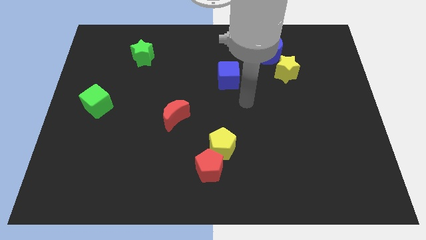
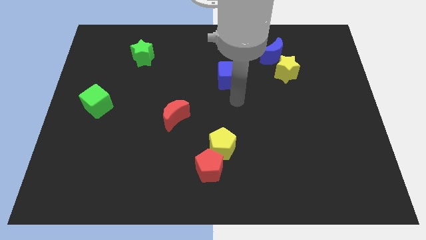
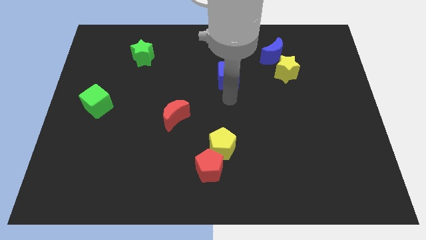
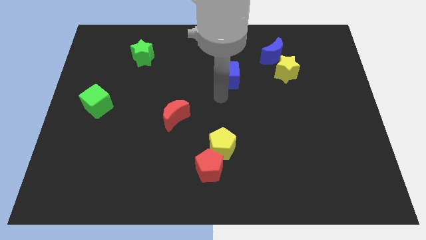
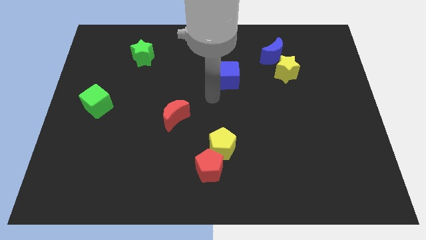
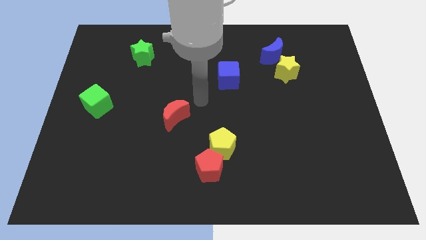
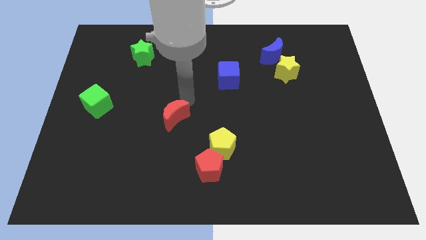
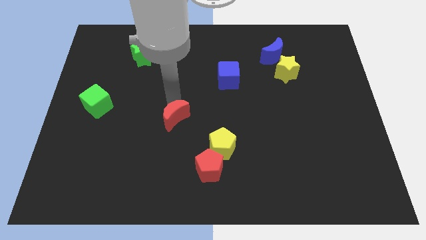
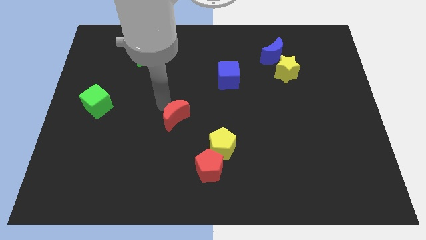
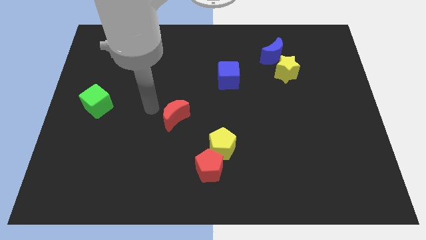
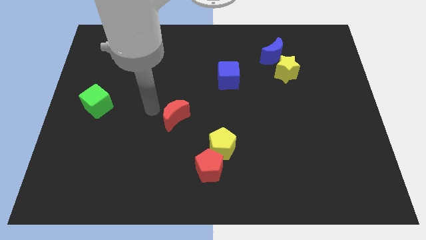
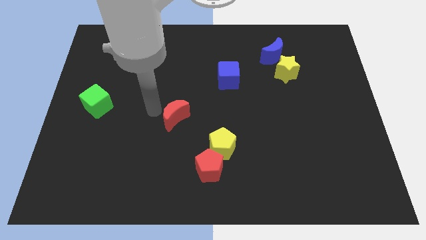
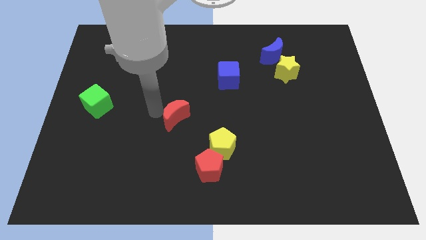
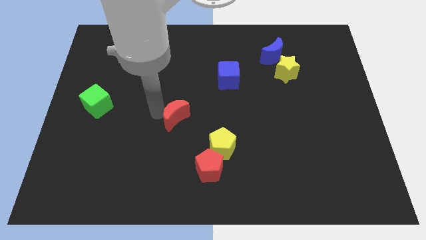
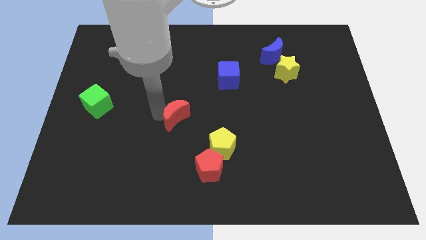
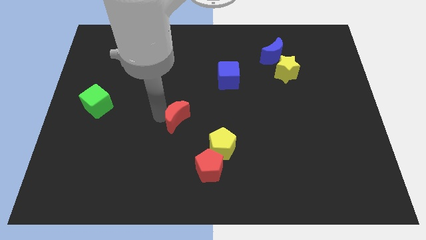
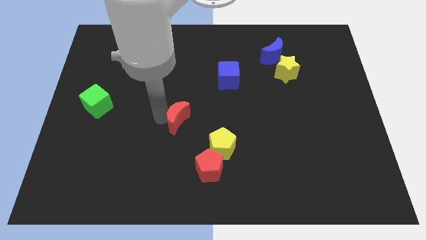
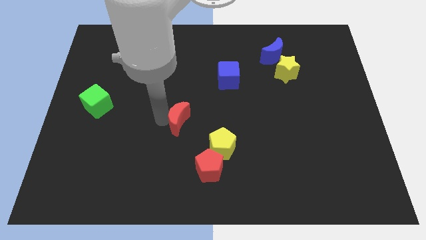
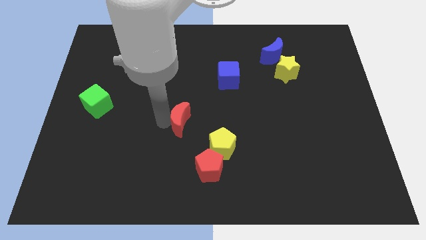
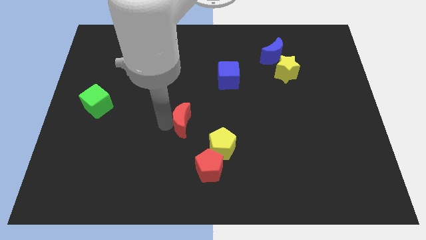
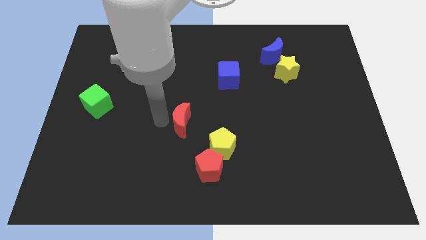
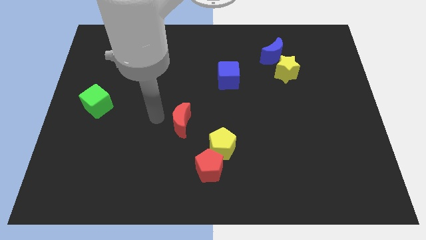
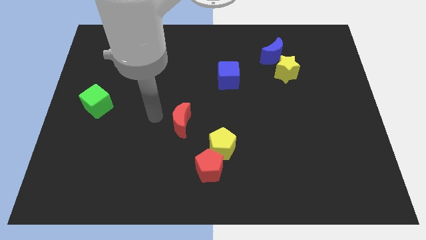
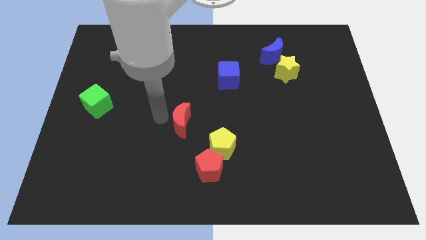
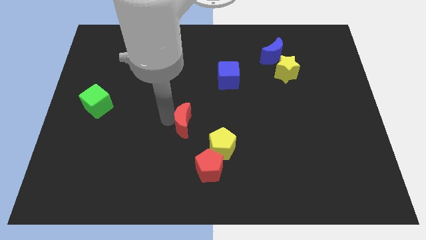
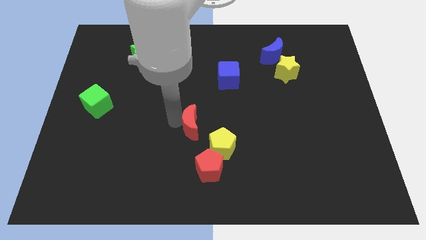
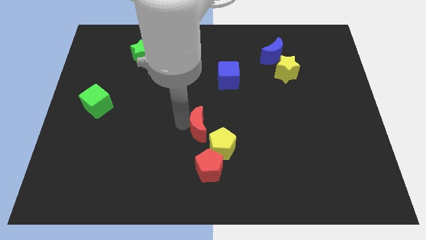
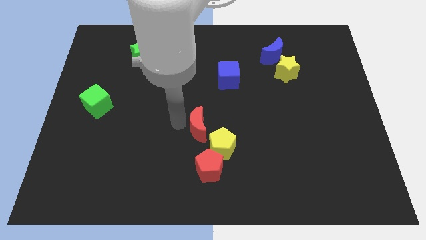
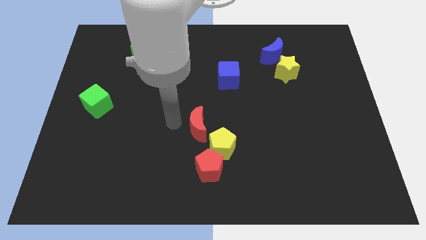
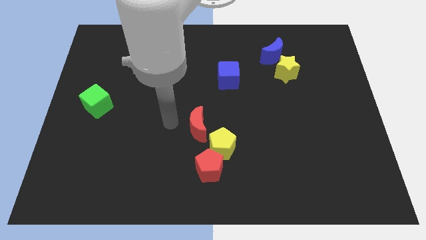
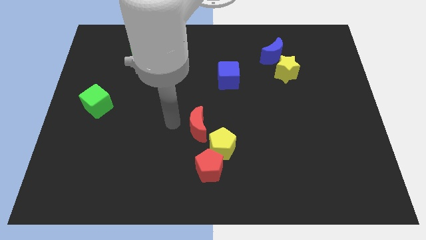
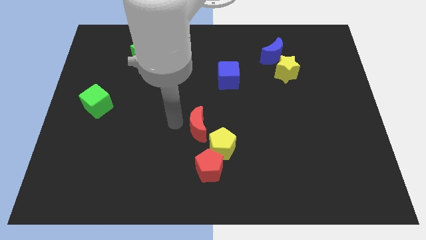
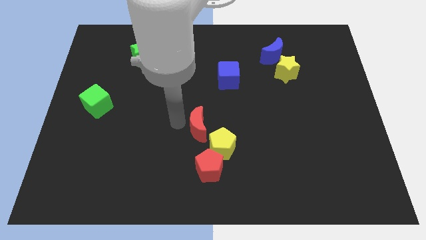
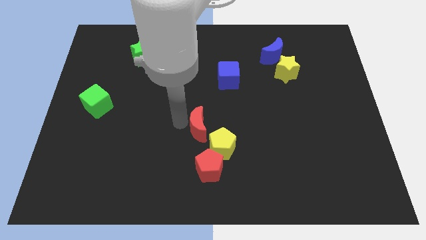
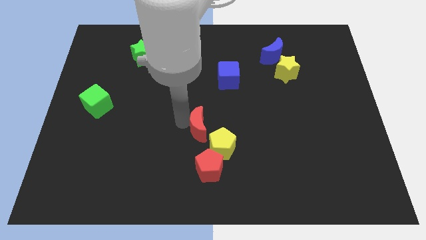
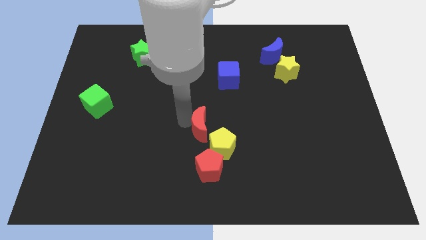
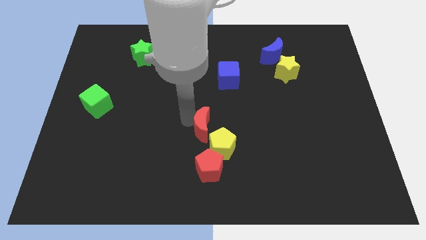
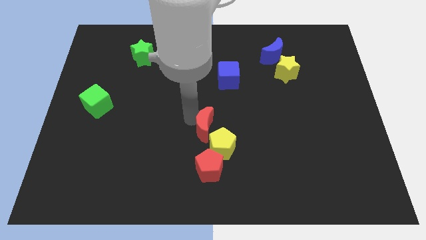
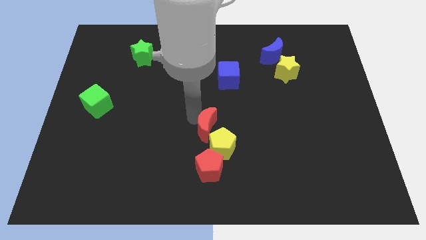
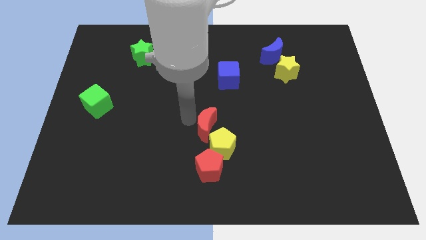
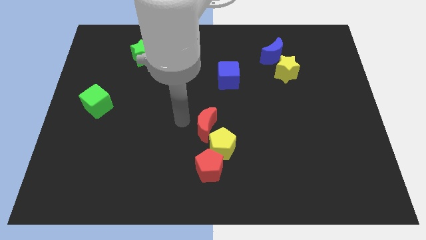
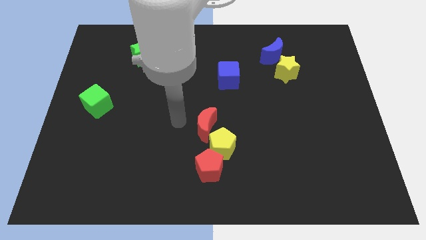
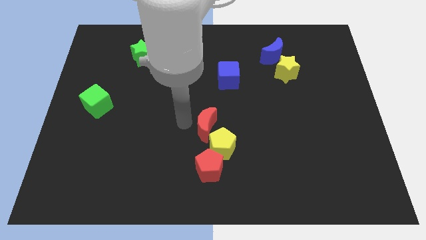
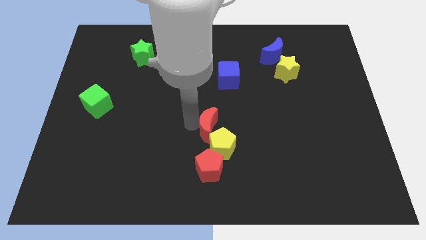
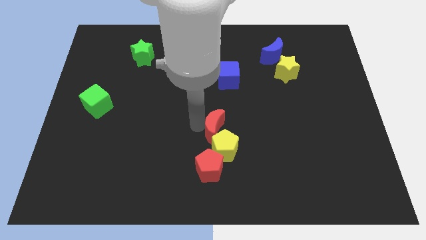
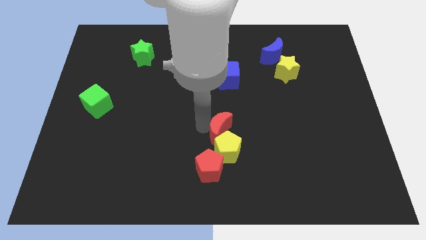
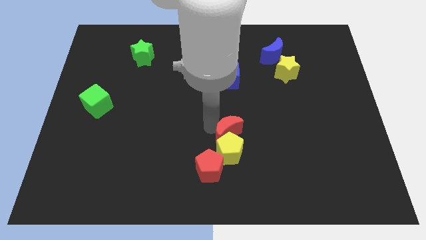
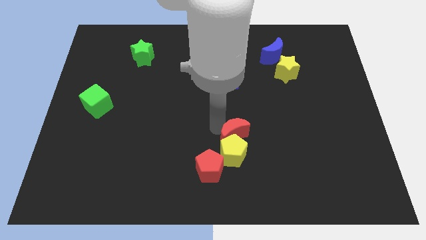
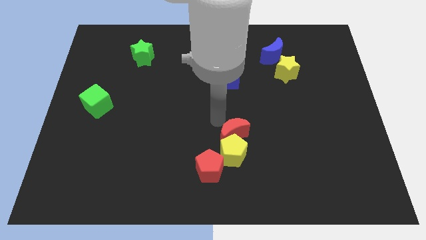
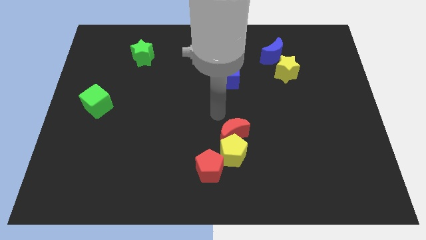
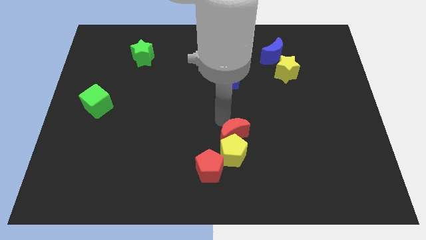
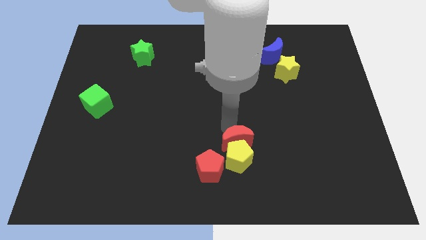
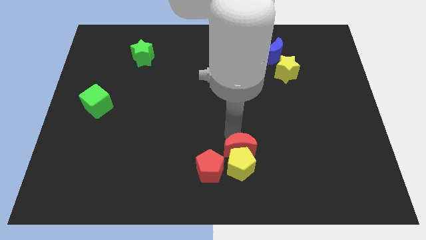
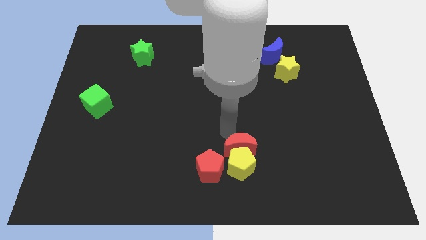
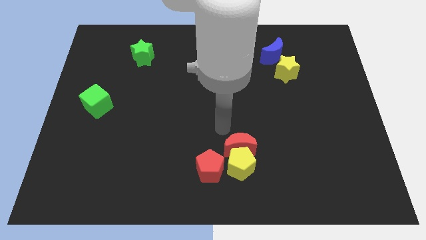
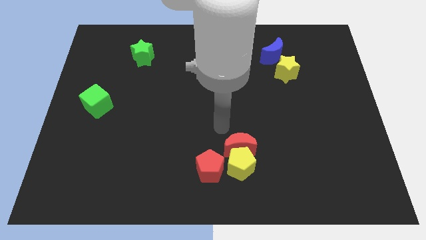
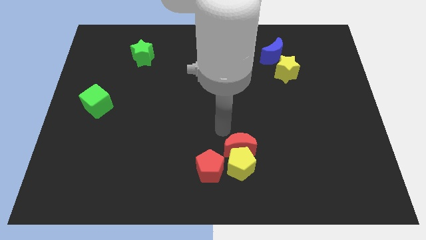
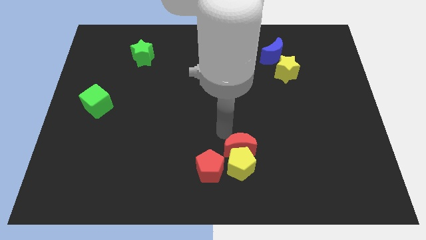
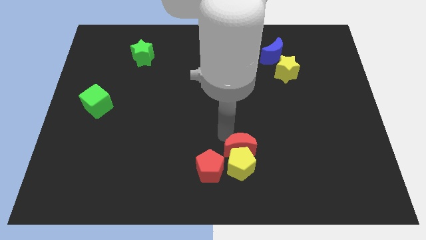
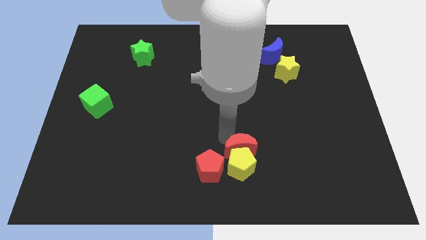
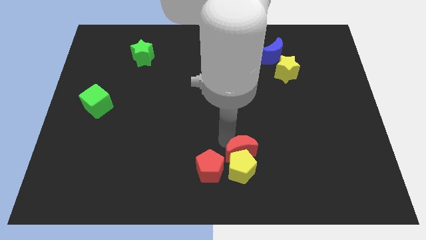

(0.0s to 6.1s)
put the red moon right of the red pentagon
